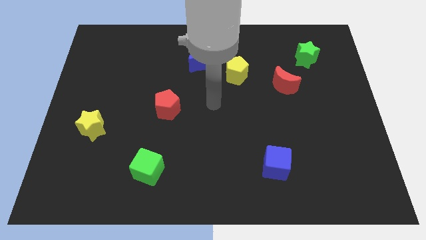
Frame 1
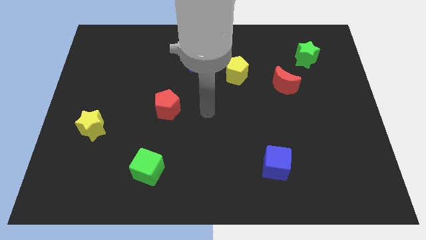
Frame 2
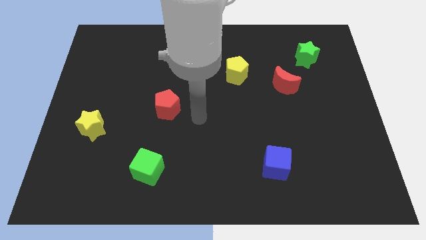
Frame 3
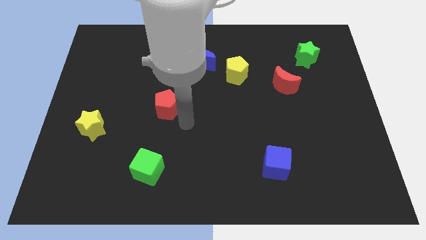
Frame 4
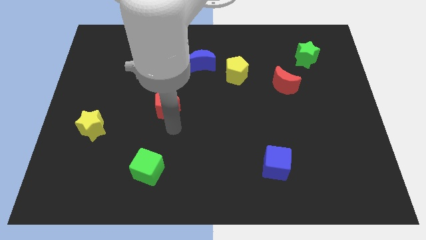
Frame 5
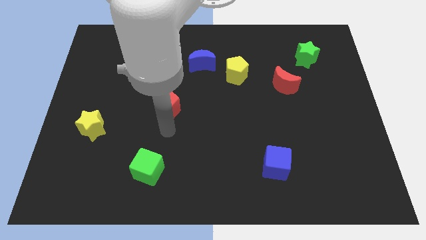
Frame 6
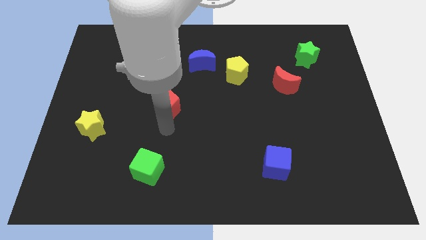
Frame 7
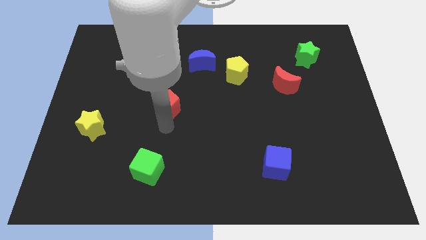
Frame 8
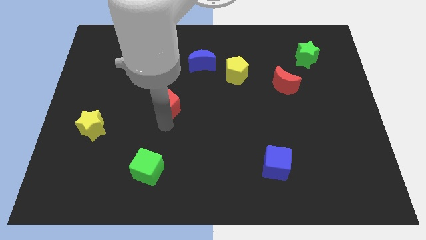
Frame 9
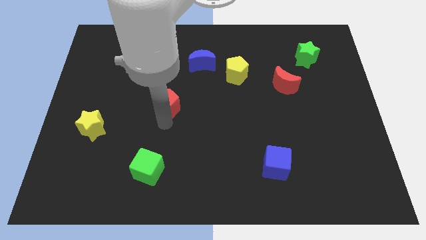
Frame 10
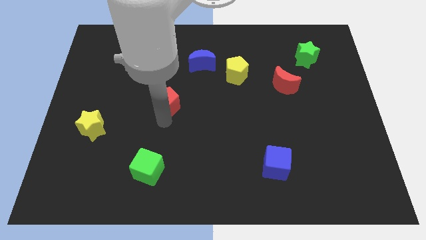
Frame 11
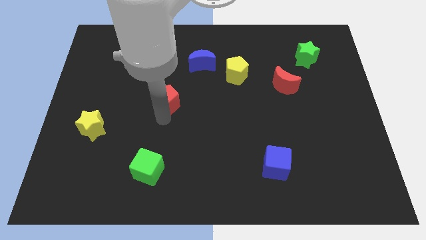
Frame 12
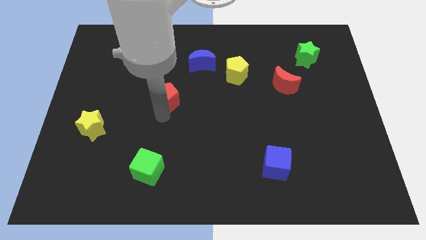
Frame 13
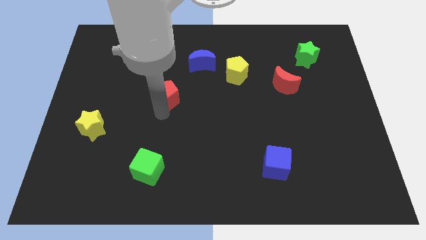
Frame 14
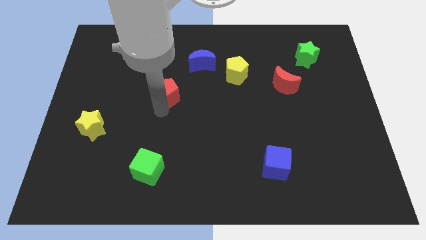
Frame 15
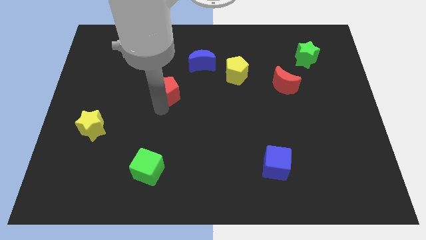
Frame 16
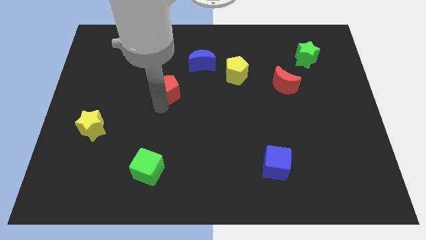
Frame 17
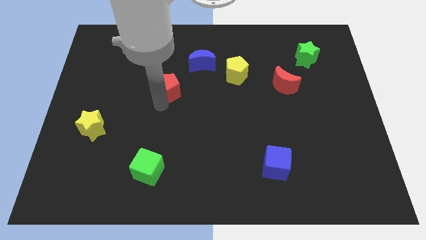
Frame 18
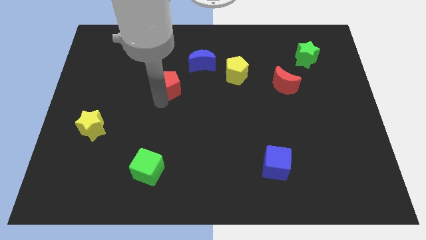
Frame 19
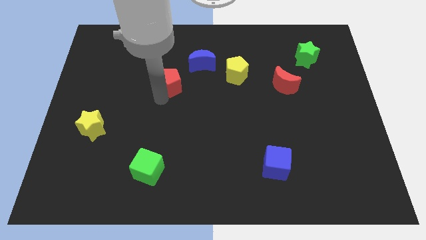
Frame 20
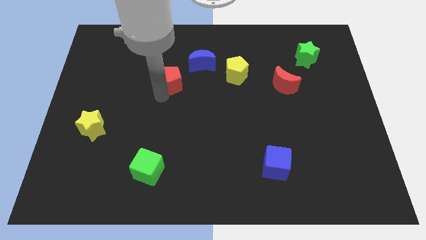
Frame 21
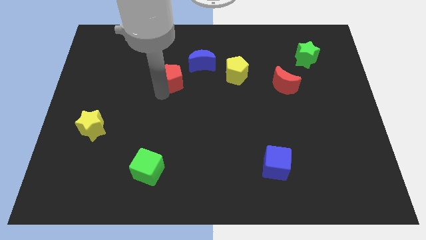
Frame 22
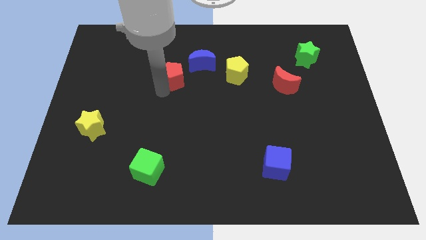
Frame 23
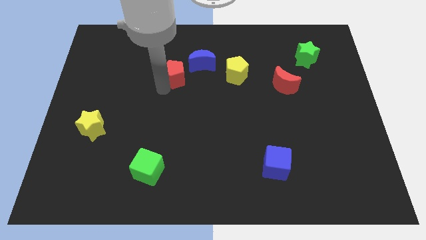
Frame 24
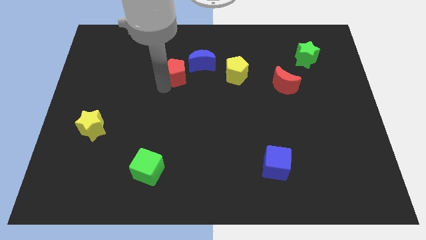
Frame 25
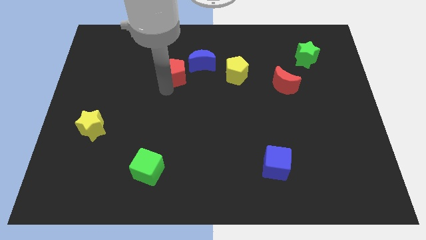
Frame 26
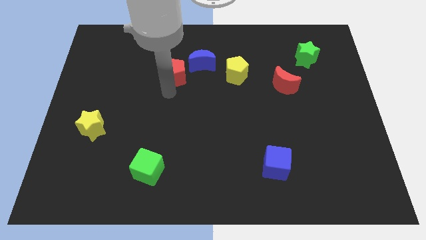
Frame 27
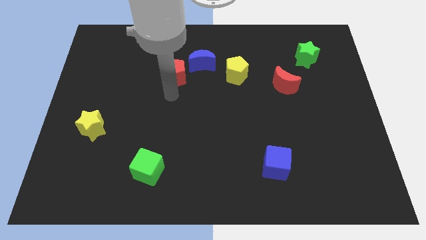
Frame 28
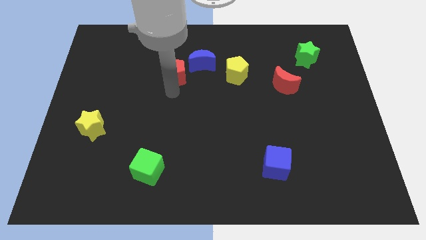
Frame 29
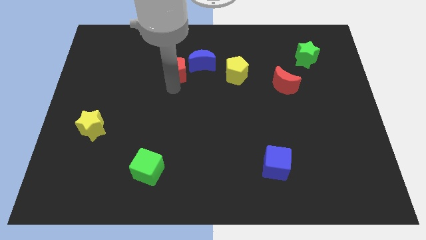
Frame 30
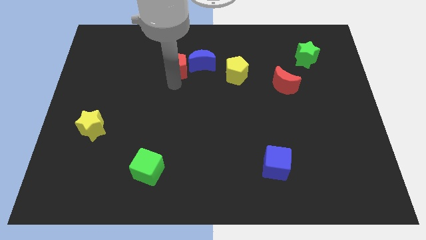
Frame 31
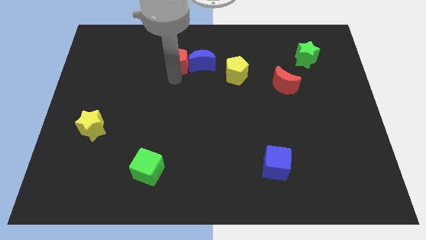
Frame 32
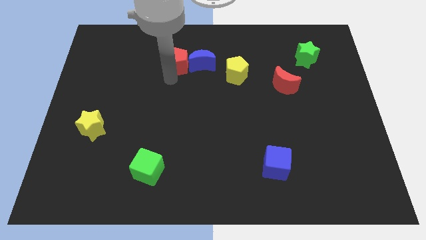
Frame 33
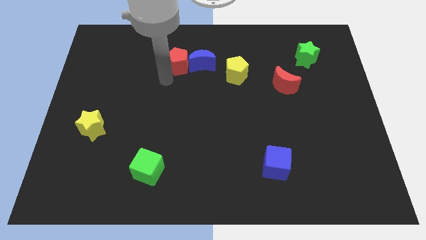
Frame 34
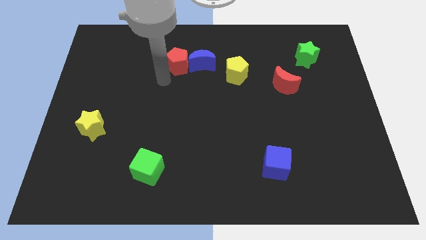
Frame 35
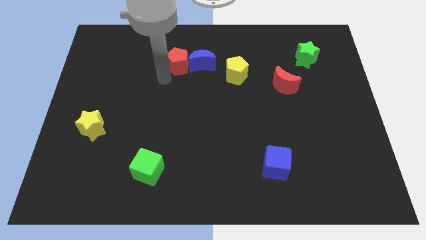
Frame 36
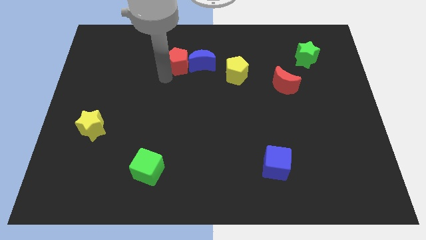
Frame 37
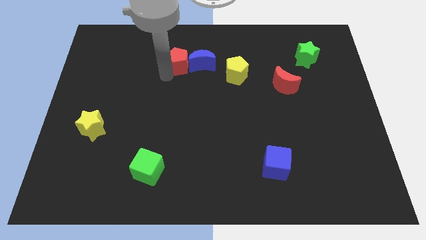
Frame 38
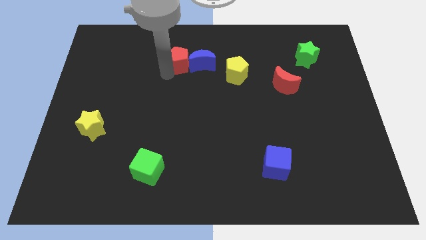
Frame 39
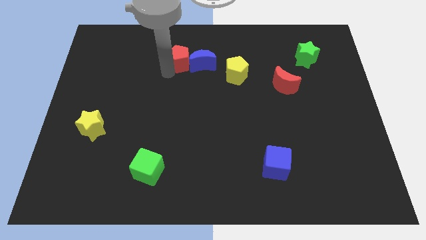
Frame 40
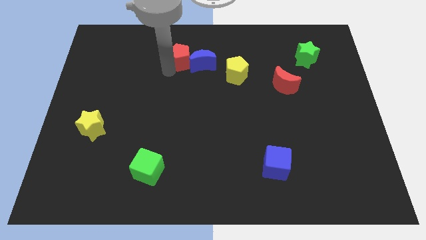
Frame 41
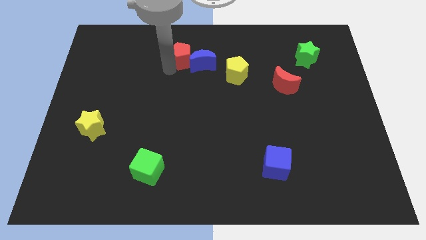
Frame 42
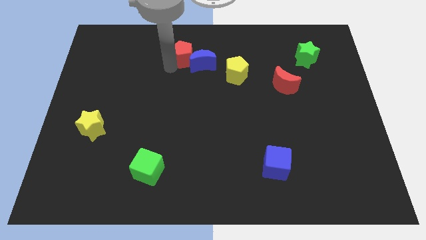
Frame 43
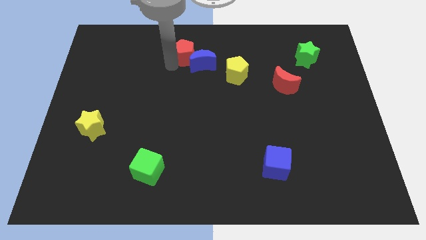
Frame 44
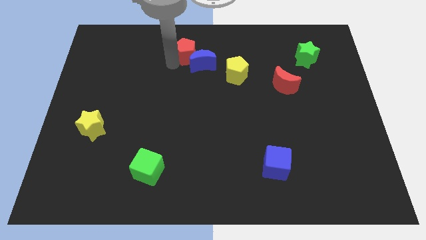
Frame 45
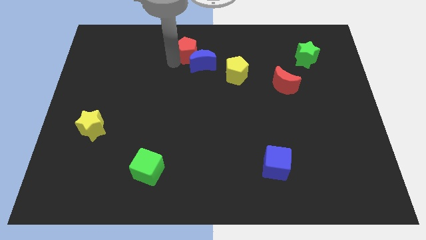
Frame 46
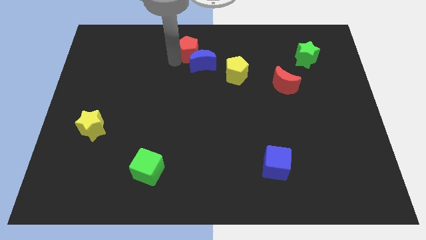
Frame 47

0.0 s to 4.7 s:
move the red pentagon to the top side

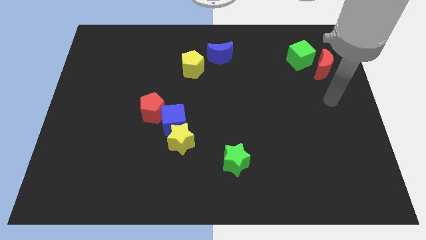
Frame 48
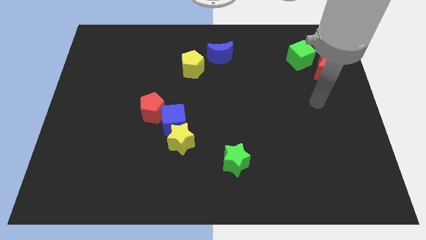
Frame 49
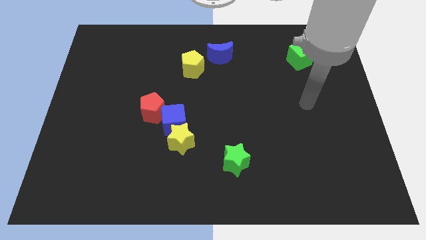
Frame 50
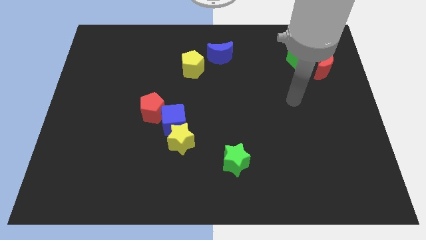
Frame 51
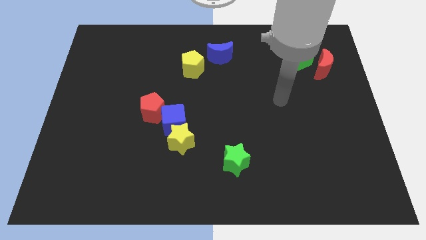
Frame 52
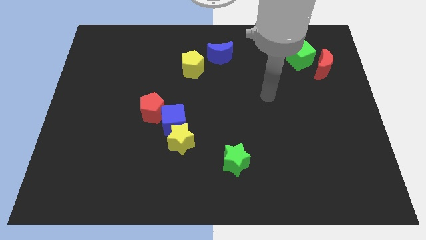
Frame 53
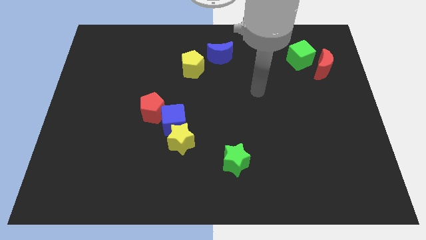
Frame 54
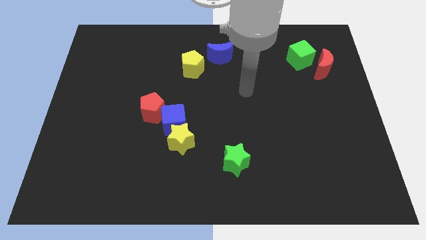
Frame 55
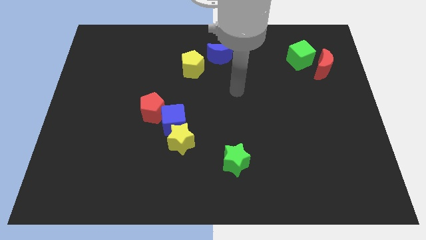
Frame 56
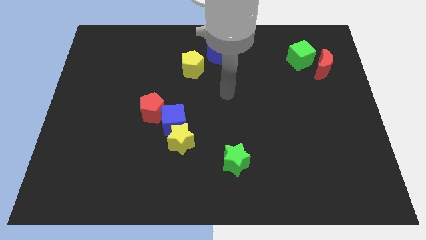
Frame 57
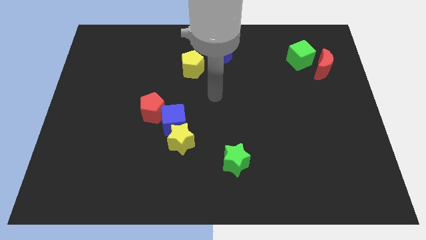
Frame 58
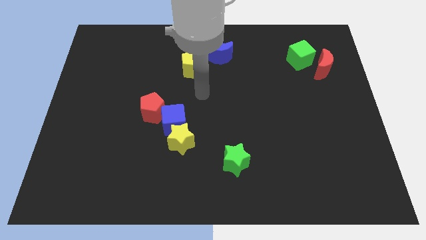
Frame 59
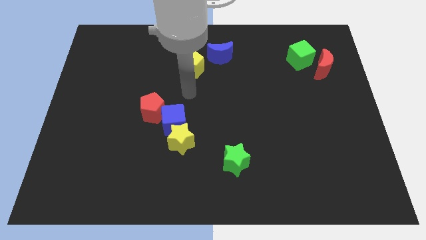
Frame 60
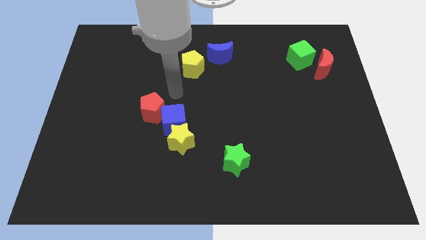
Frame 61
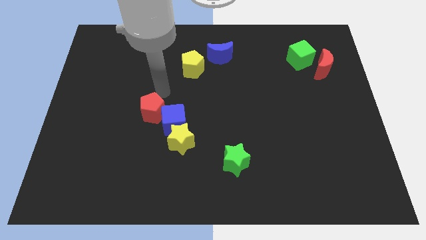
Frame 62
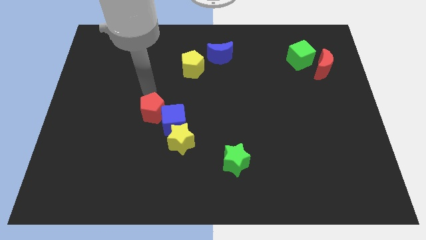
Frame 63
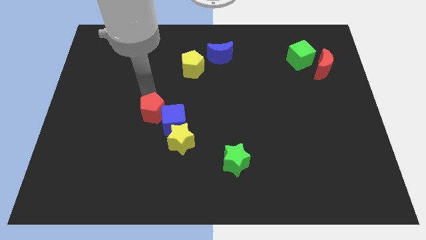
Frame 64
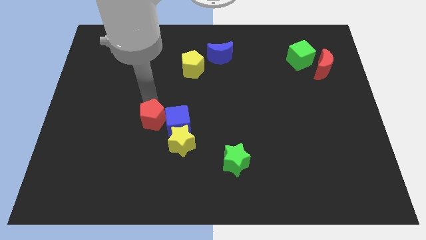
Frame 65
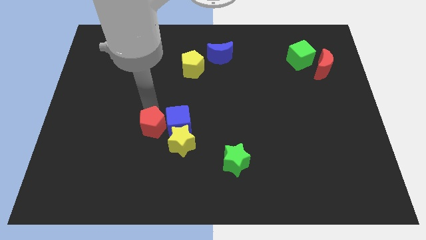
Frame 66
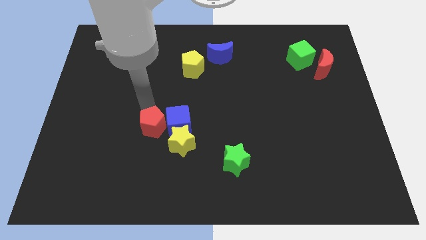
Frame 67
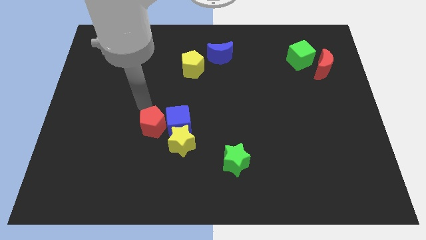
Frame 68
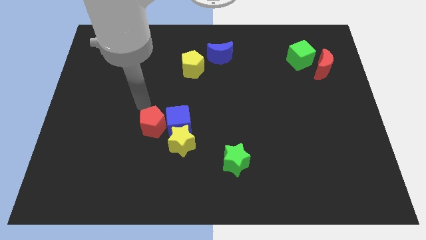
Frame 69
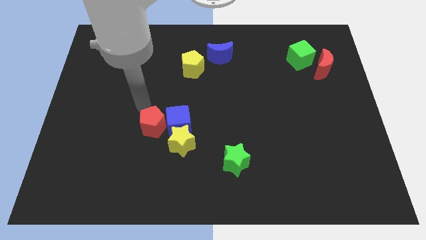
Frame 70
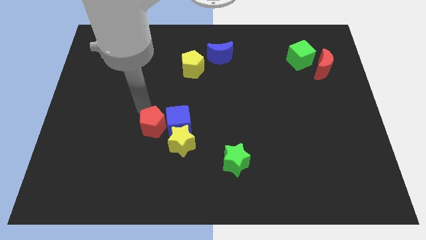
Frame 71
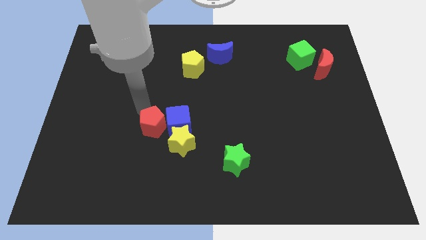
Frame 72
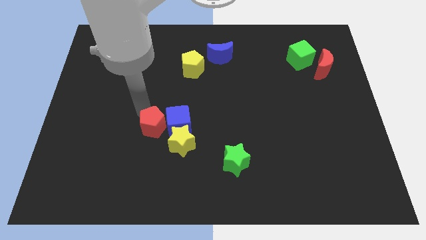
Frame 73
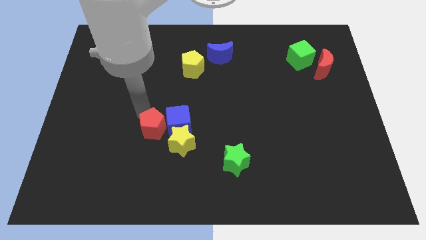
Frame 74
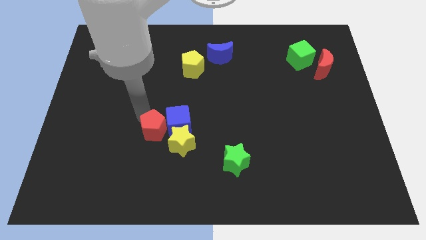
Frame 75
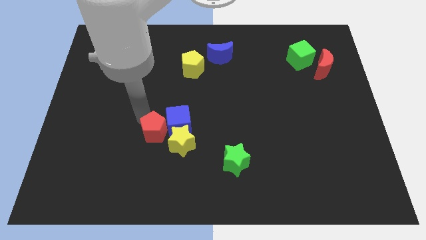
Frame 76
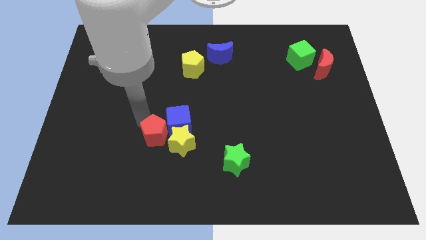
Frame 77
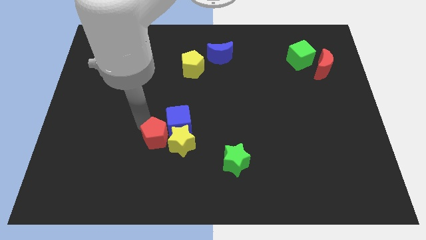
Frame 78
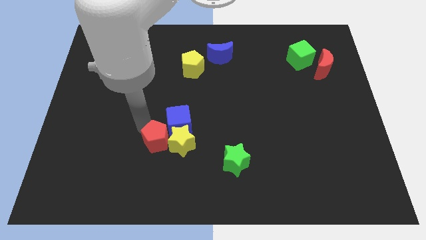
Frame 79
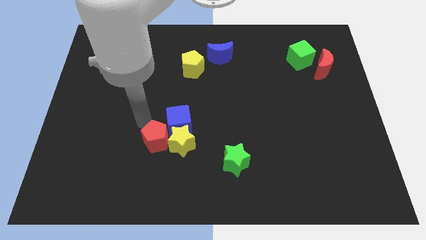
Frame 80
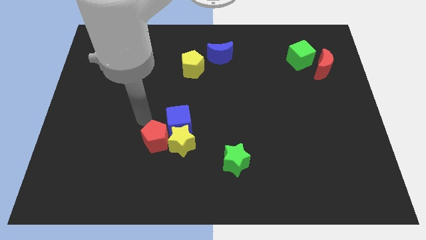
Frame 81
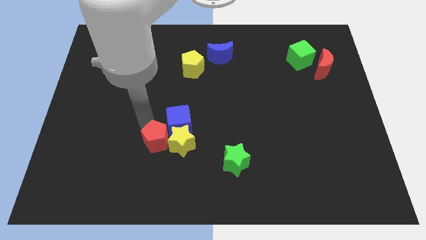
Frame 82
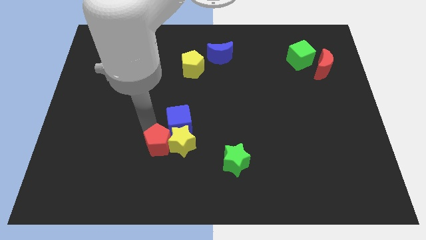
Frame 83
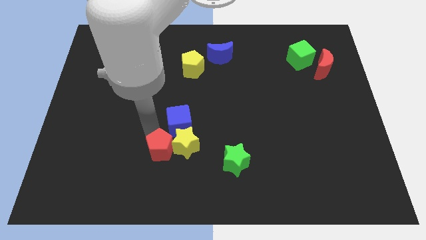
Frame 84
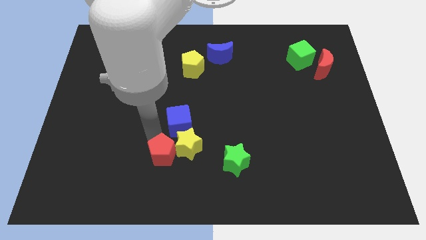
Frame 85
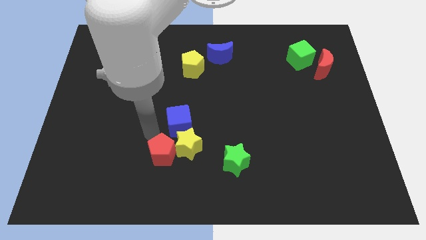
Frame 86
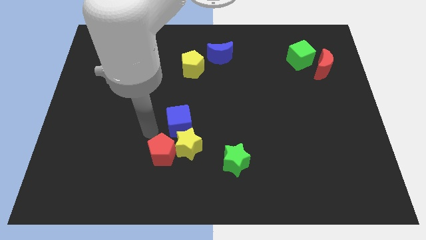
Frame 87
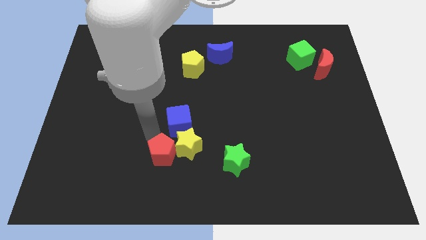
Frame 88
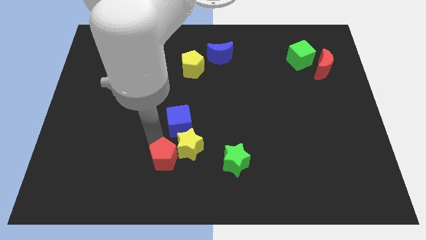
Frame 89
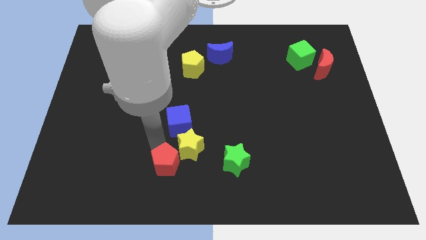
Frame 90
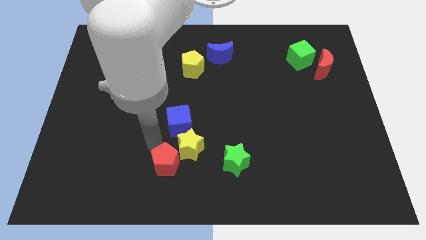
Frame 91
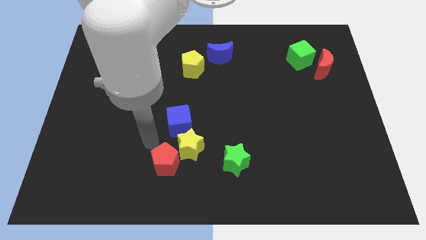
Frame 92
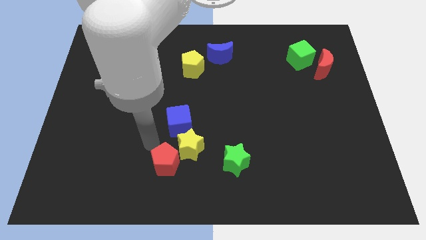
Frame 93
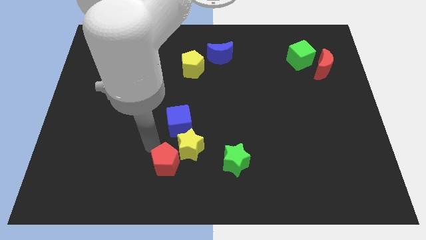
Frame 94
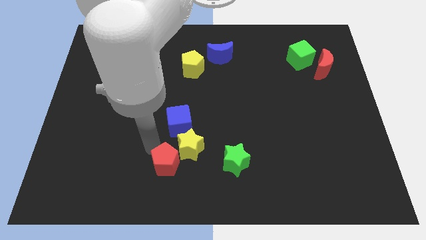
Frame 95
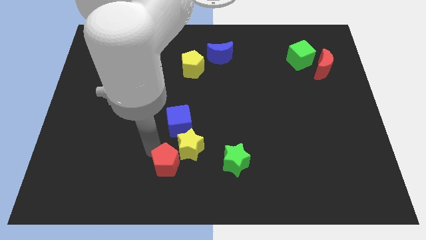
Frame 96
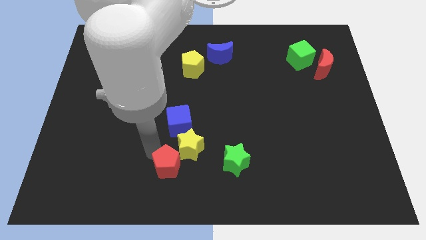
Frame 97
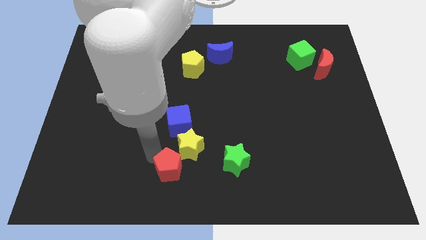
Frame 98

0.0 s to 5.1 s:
move the red pentagon to the bottom side
